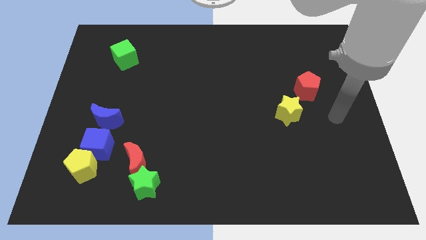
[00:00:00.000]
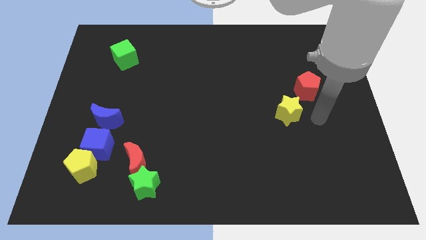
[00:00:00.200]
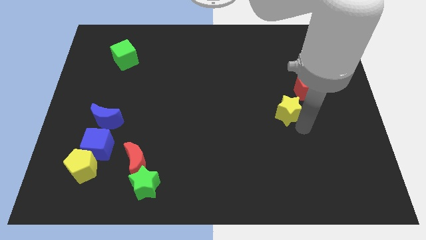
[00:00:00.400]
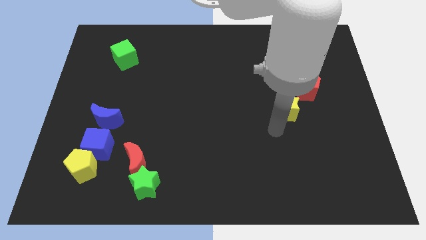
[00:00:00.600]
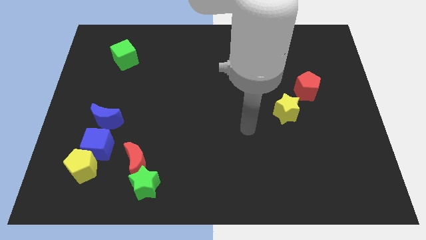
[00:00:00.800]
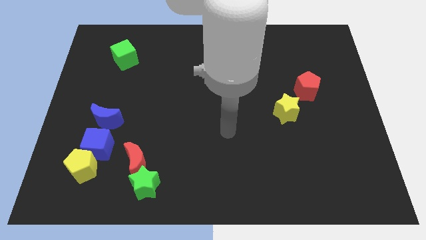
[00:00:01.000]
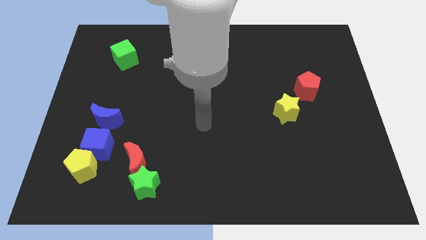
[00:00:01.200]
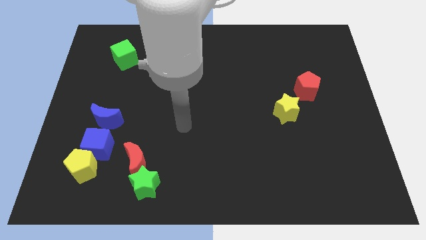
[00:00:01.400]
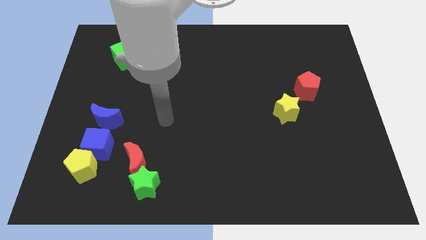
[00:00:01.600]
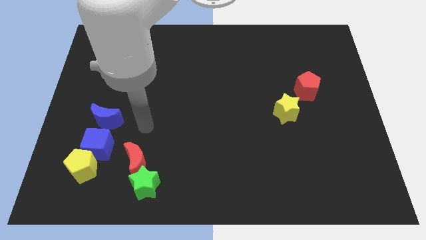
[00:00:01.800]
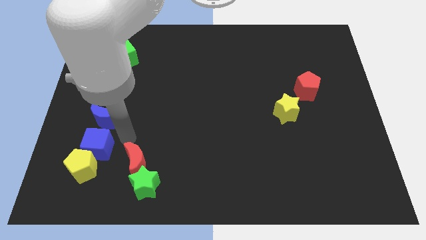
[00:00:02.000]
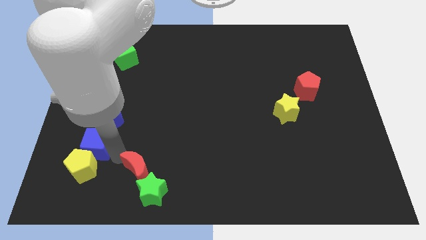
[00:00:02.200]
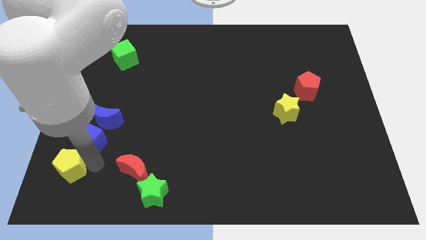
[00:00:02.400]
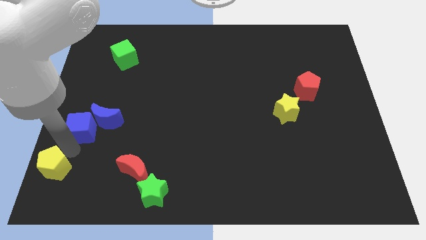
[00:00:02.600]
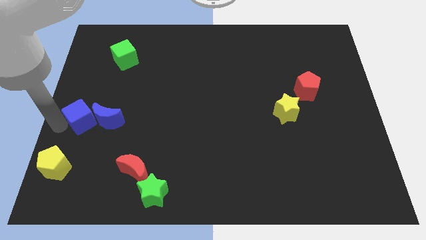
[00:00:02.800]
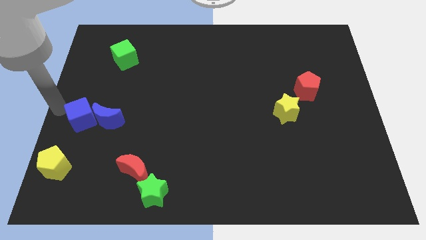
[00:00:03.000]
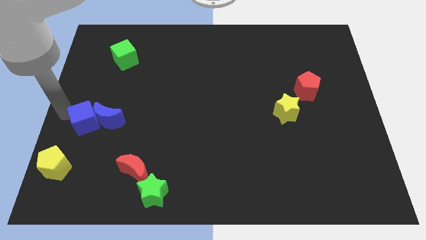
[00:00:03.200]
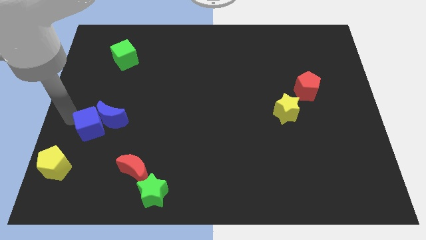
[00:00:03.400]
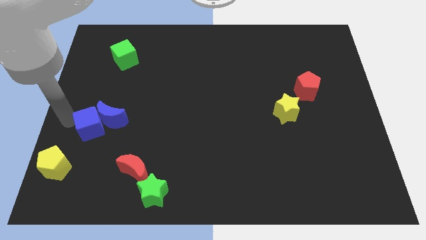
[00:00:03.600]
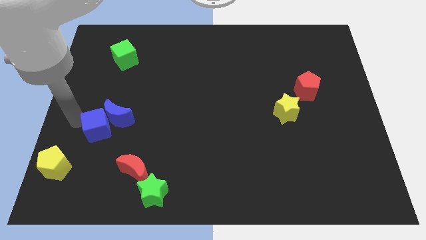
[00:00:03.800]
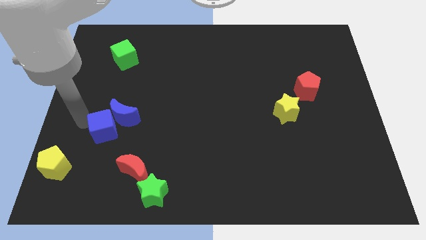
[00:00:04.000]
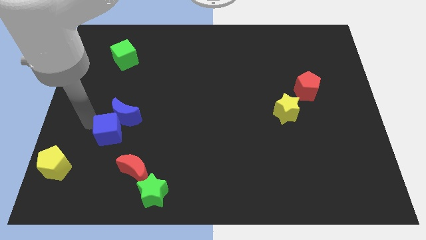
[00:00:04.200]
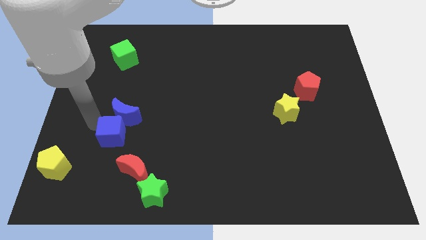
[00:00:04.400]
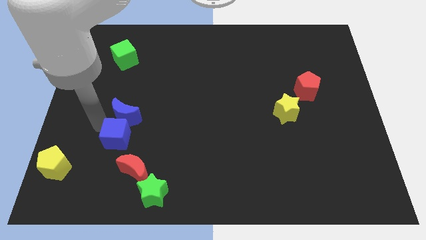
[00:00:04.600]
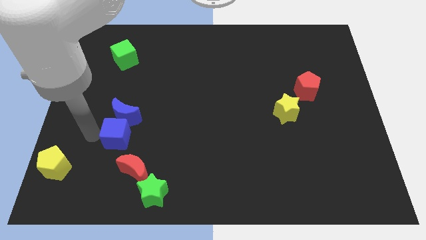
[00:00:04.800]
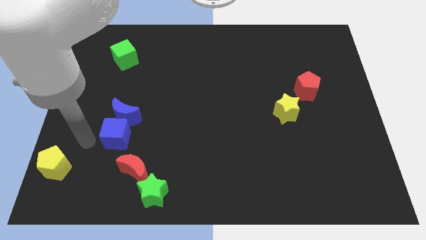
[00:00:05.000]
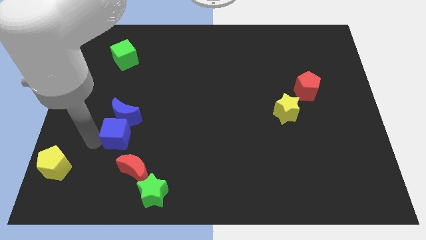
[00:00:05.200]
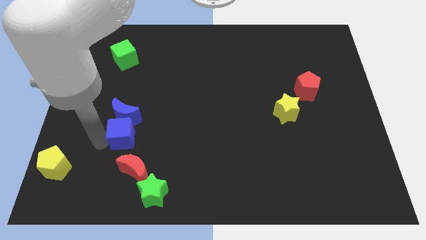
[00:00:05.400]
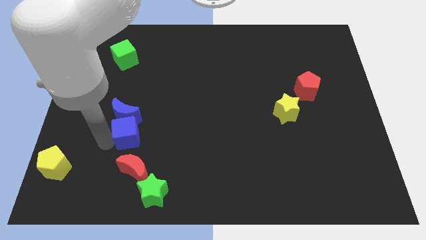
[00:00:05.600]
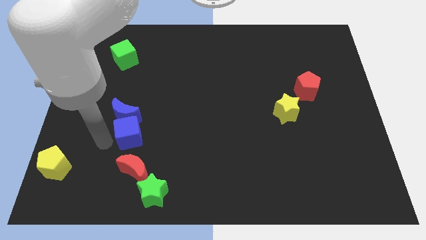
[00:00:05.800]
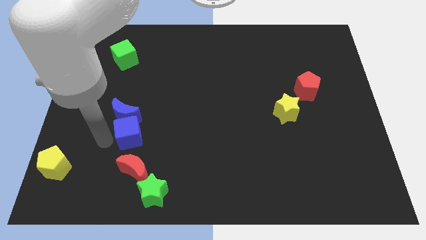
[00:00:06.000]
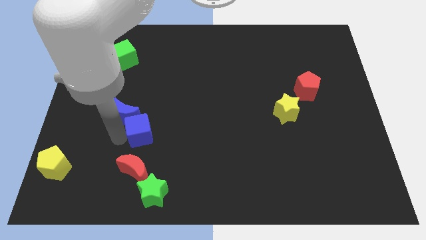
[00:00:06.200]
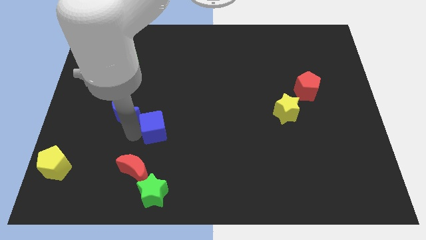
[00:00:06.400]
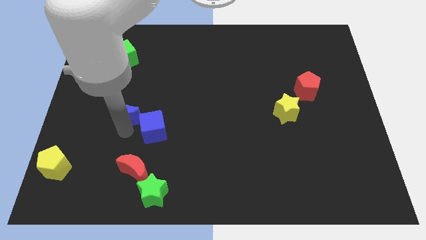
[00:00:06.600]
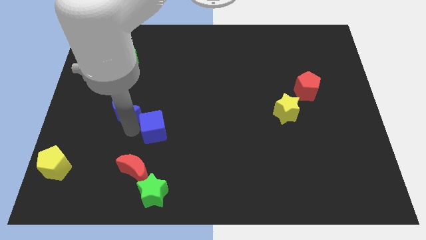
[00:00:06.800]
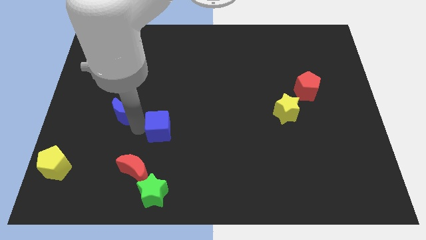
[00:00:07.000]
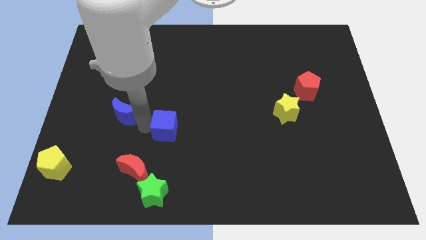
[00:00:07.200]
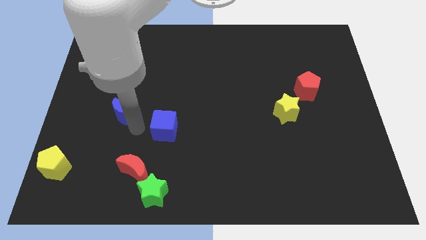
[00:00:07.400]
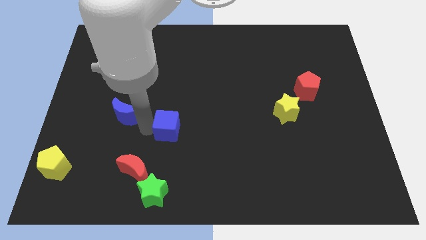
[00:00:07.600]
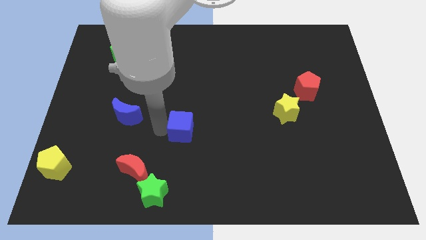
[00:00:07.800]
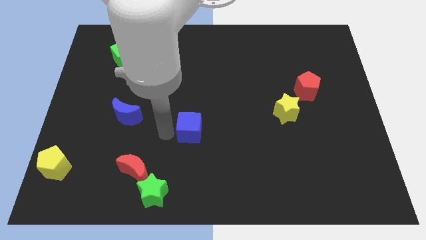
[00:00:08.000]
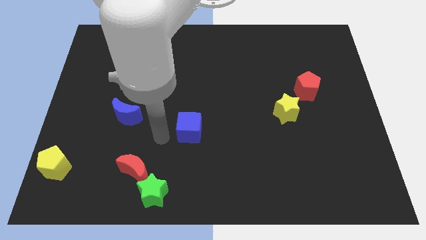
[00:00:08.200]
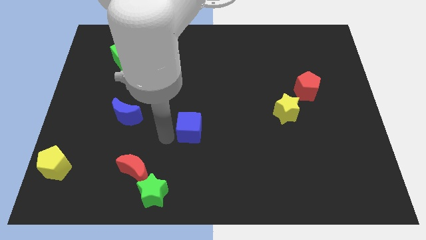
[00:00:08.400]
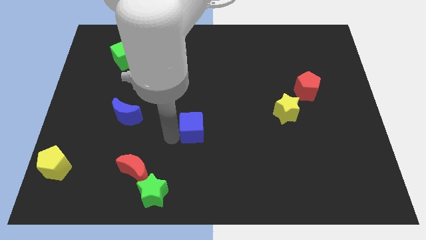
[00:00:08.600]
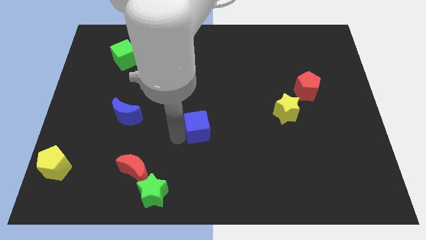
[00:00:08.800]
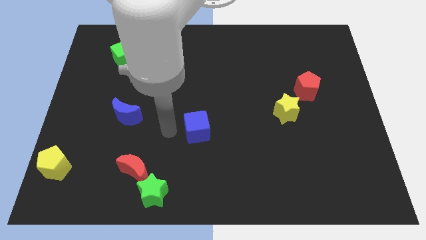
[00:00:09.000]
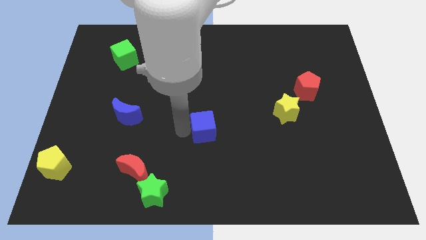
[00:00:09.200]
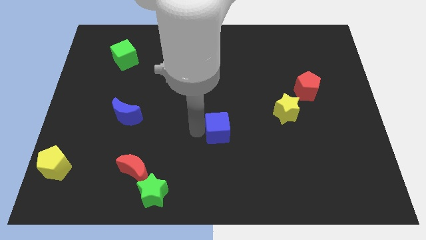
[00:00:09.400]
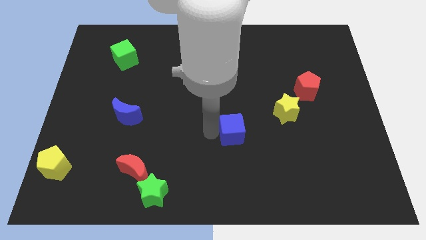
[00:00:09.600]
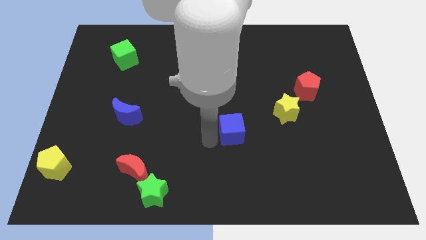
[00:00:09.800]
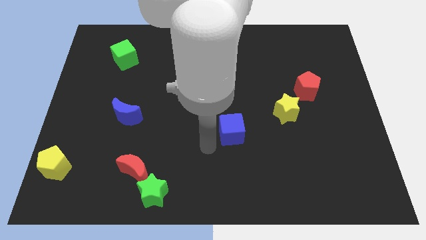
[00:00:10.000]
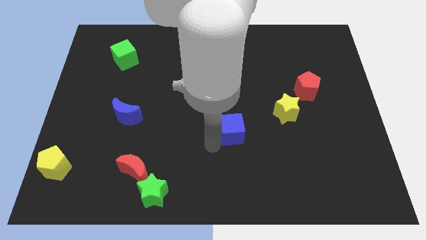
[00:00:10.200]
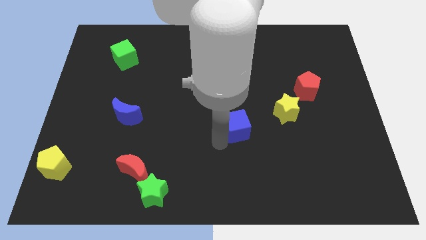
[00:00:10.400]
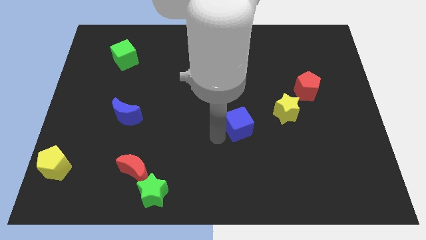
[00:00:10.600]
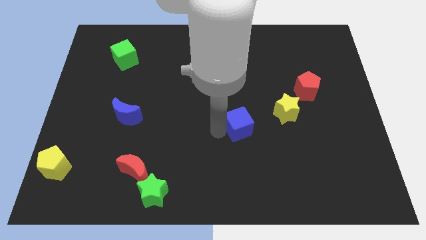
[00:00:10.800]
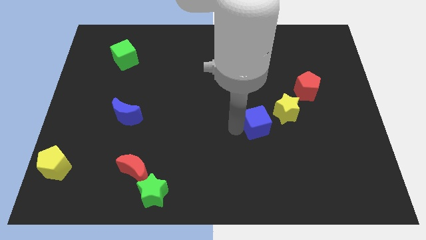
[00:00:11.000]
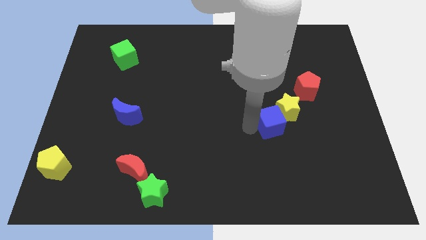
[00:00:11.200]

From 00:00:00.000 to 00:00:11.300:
move the blue cube to the yellow star

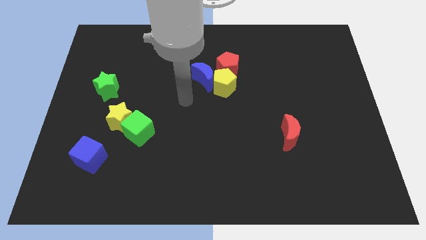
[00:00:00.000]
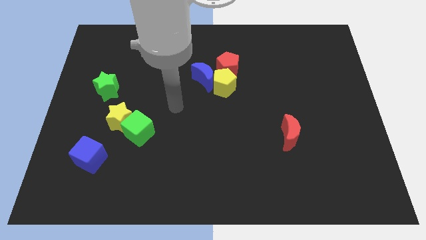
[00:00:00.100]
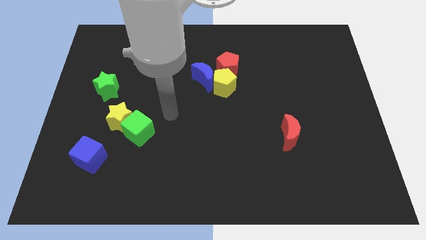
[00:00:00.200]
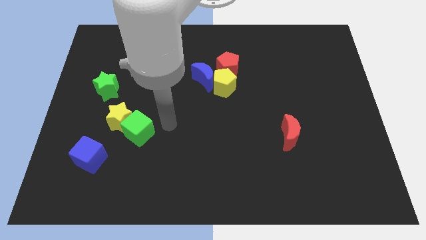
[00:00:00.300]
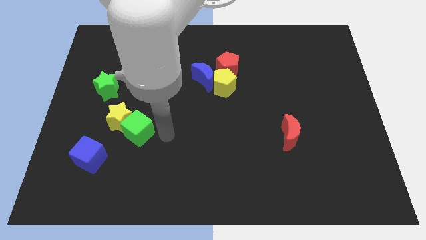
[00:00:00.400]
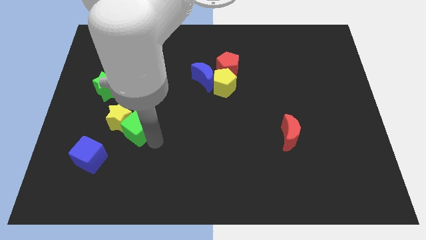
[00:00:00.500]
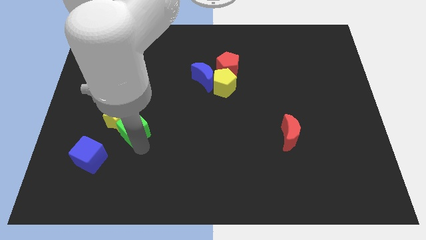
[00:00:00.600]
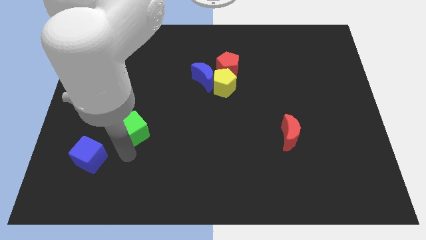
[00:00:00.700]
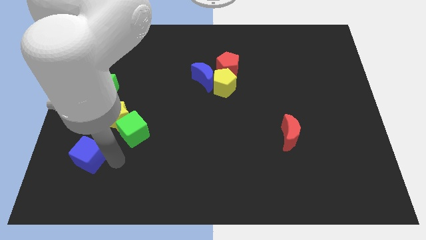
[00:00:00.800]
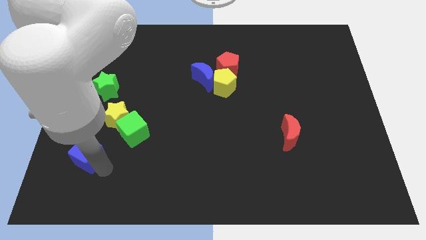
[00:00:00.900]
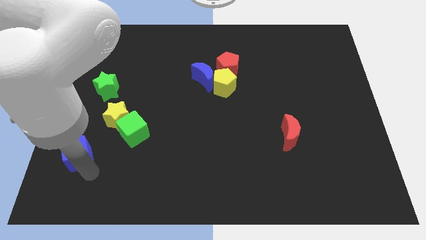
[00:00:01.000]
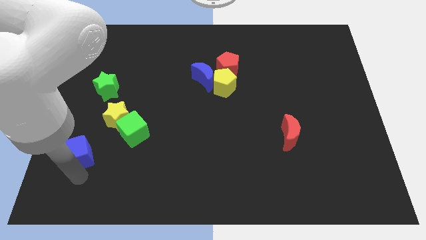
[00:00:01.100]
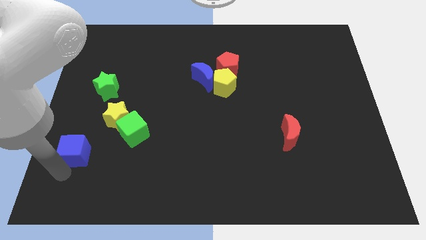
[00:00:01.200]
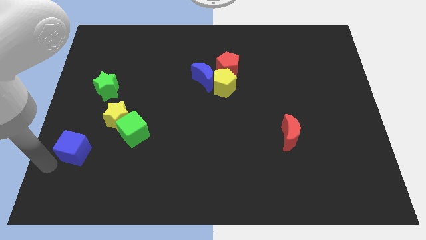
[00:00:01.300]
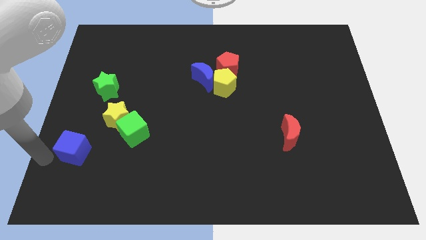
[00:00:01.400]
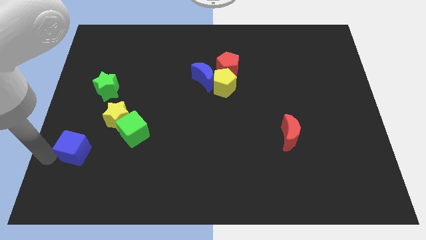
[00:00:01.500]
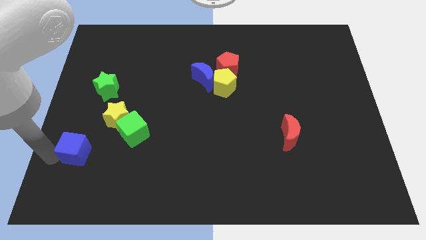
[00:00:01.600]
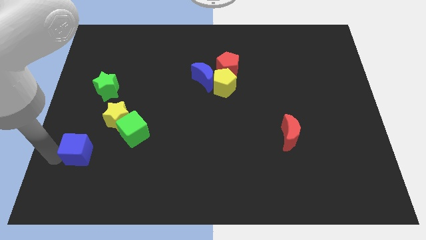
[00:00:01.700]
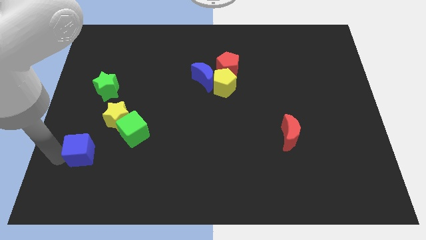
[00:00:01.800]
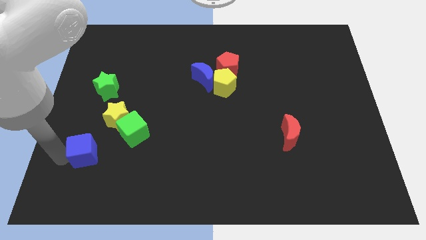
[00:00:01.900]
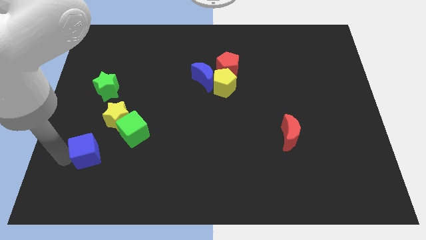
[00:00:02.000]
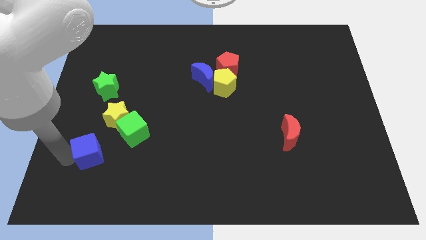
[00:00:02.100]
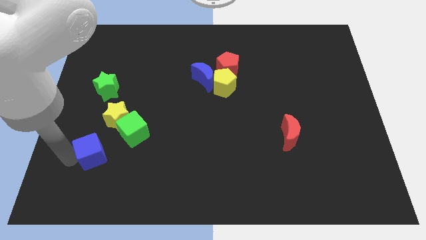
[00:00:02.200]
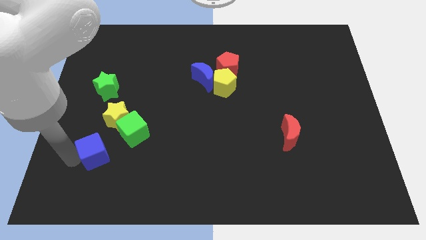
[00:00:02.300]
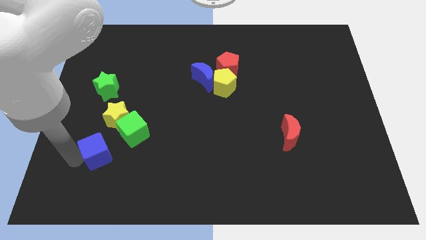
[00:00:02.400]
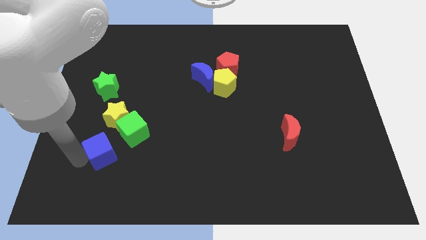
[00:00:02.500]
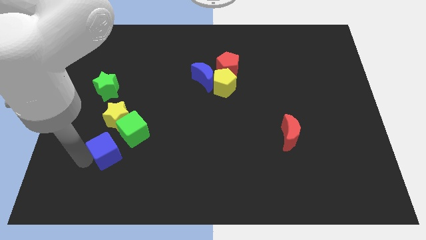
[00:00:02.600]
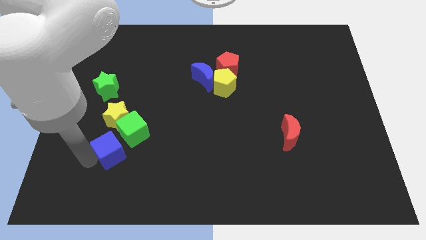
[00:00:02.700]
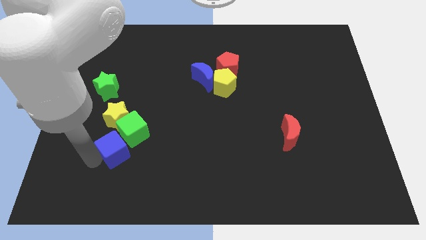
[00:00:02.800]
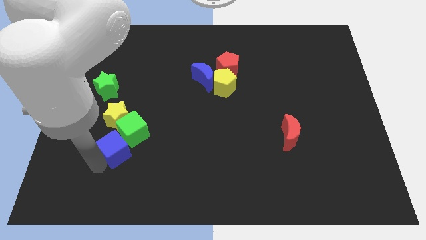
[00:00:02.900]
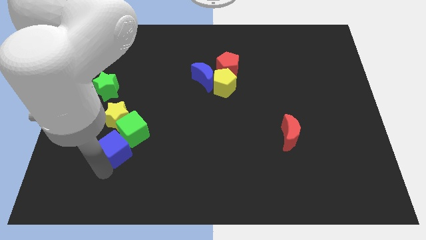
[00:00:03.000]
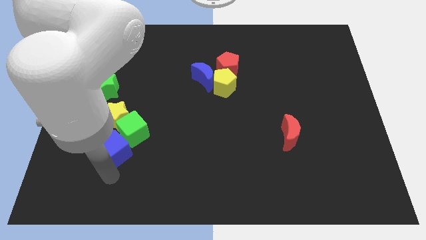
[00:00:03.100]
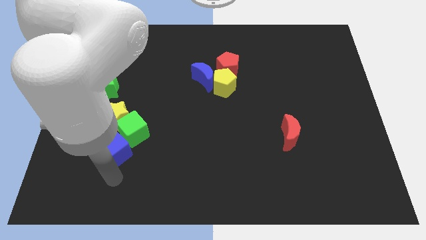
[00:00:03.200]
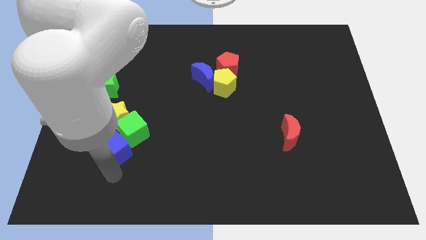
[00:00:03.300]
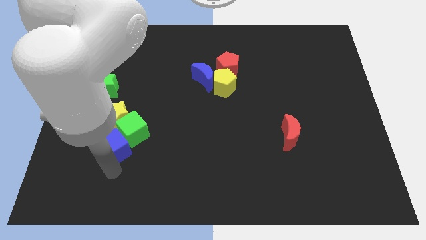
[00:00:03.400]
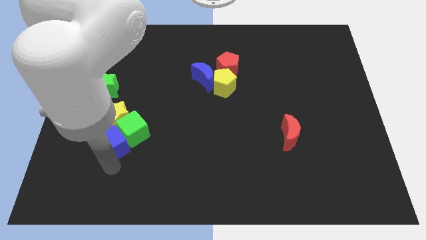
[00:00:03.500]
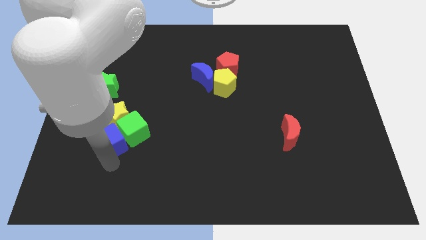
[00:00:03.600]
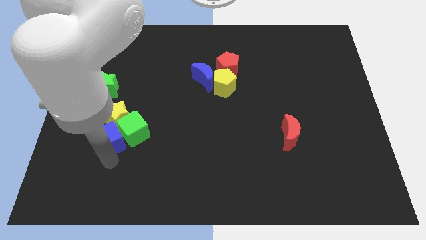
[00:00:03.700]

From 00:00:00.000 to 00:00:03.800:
slide the blue cube close to the yellow star
